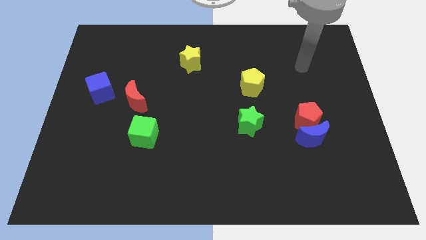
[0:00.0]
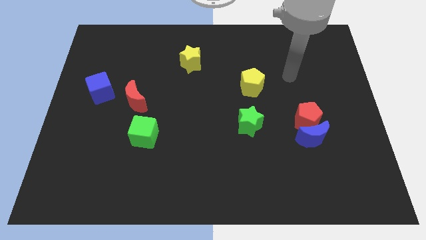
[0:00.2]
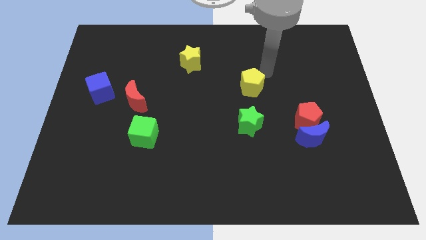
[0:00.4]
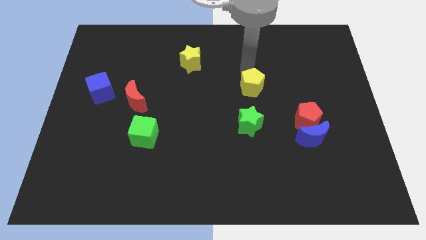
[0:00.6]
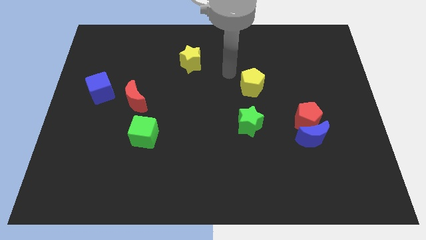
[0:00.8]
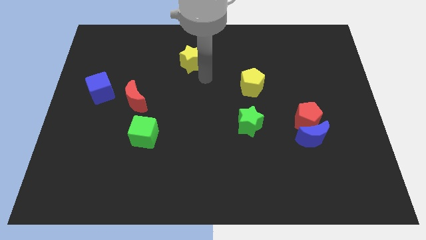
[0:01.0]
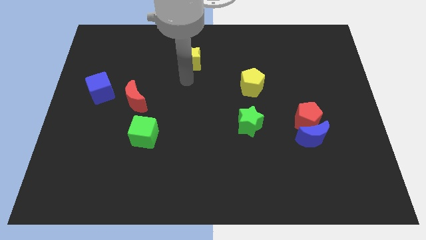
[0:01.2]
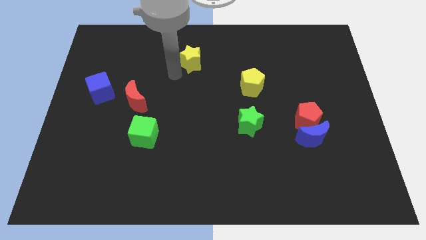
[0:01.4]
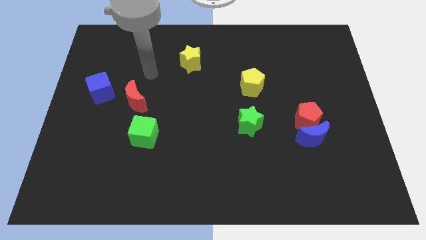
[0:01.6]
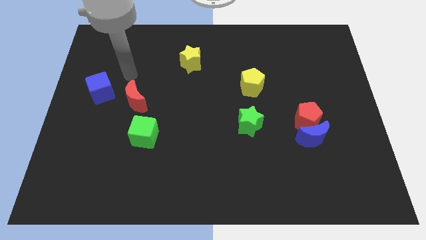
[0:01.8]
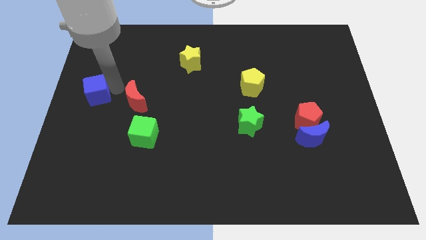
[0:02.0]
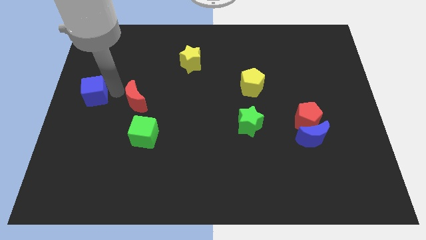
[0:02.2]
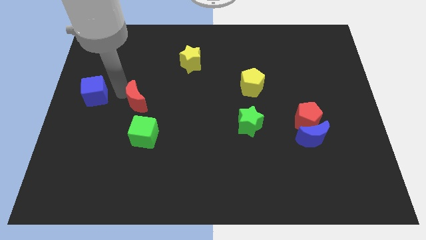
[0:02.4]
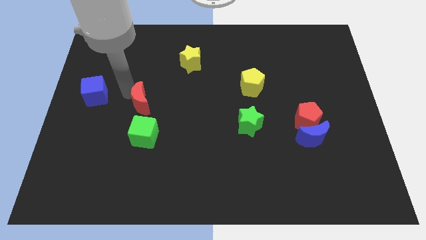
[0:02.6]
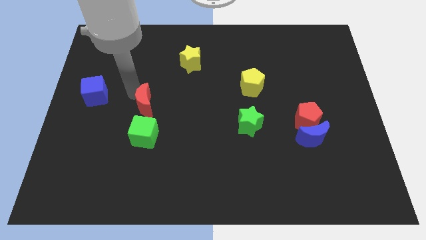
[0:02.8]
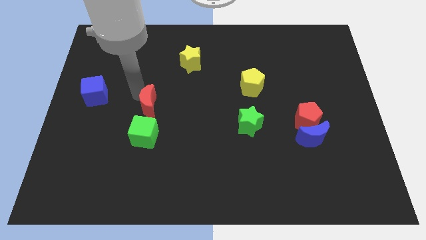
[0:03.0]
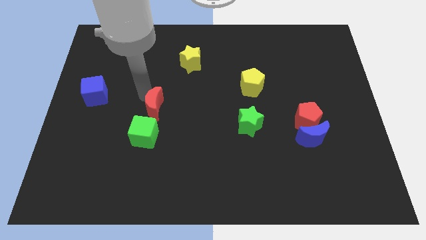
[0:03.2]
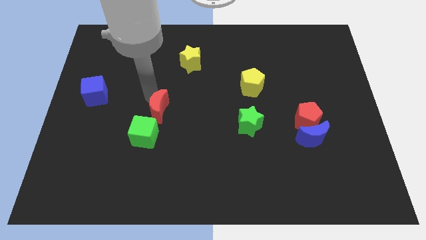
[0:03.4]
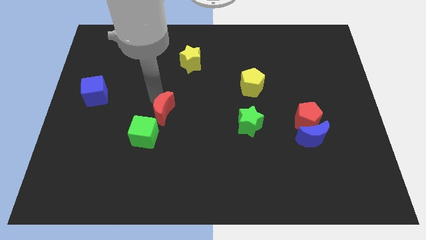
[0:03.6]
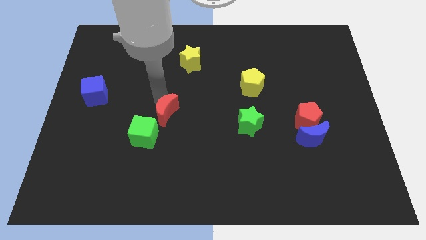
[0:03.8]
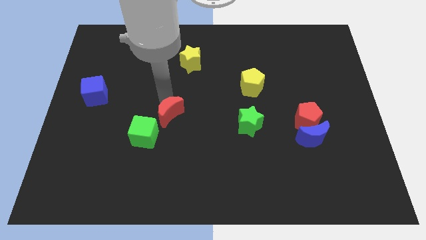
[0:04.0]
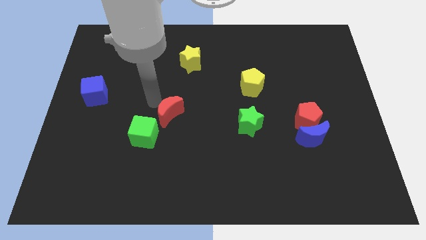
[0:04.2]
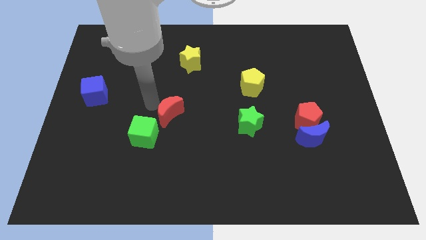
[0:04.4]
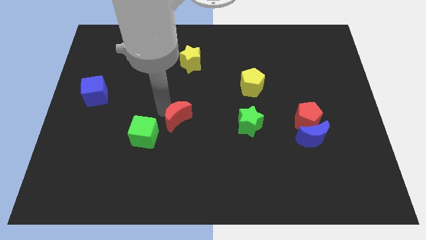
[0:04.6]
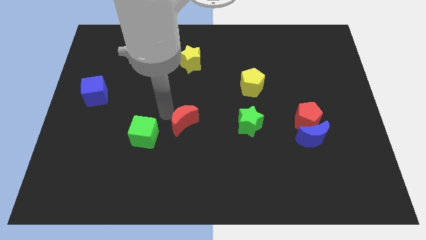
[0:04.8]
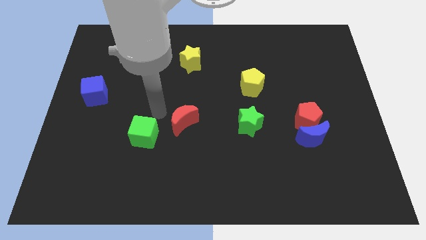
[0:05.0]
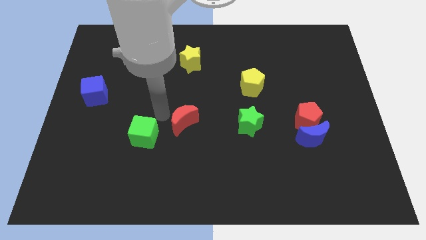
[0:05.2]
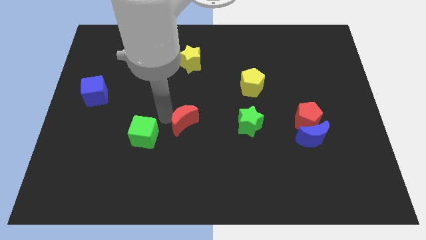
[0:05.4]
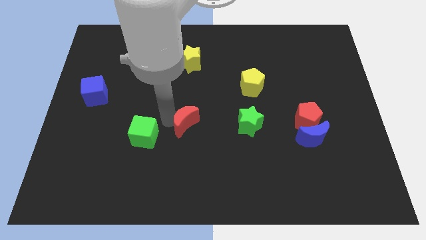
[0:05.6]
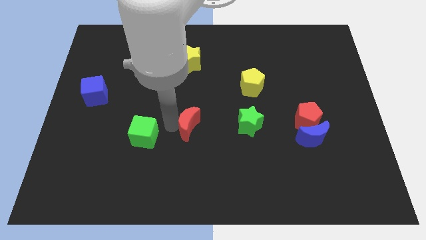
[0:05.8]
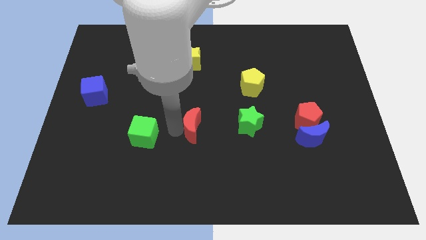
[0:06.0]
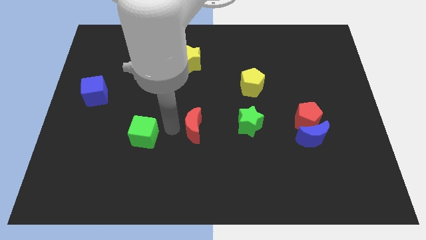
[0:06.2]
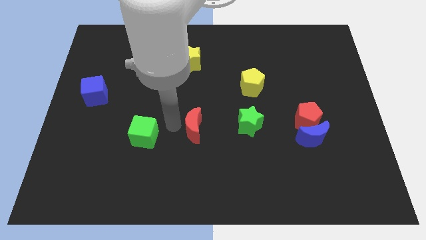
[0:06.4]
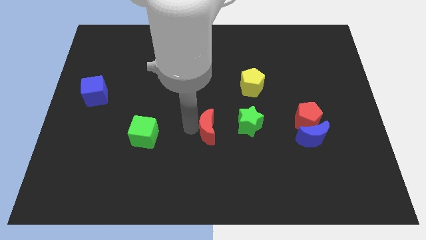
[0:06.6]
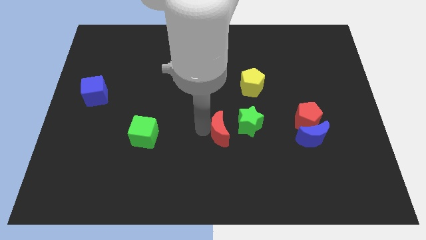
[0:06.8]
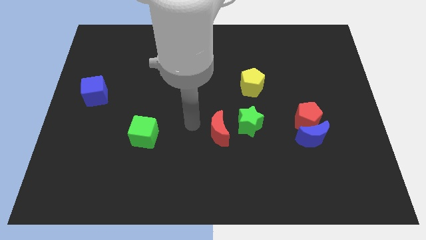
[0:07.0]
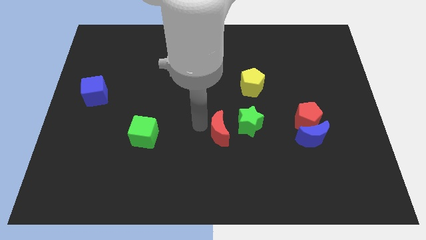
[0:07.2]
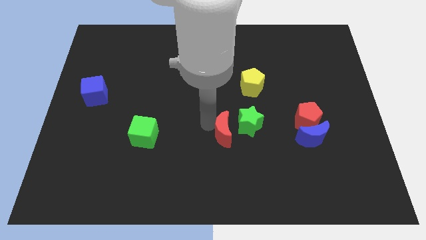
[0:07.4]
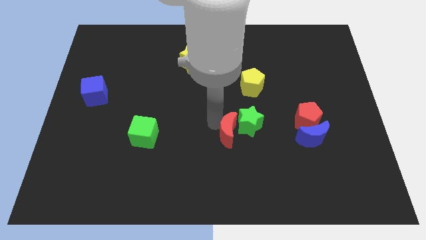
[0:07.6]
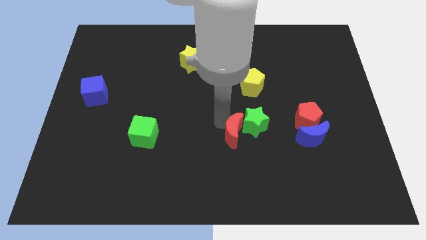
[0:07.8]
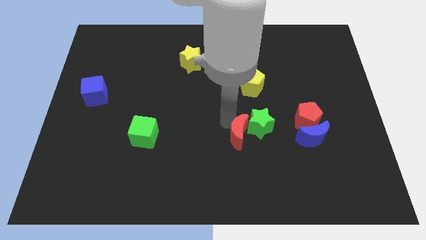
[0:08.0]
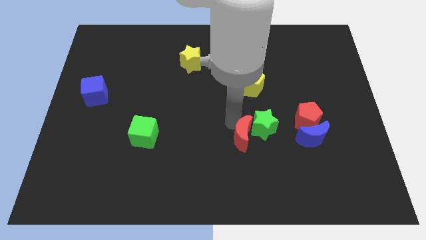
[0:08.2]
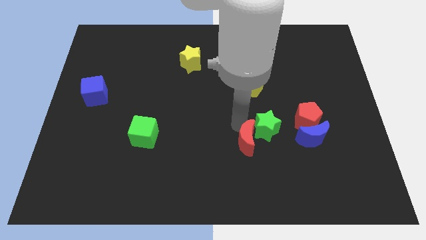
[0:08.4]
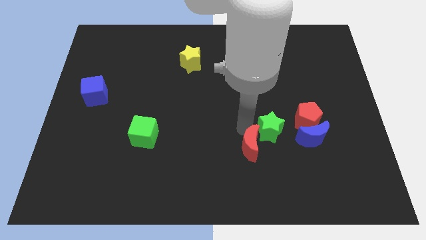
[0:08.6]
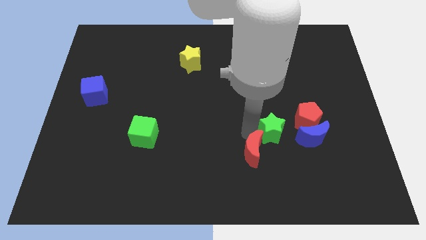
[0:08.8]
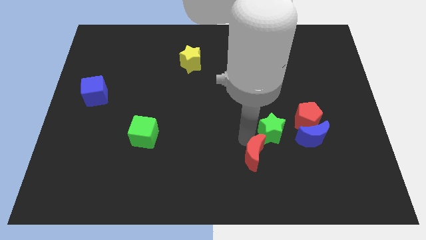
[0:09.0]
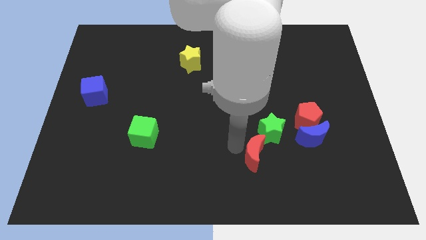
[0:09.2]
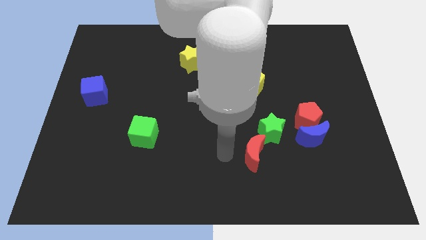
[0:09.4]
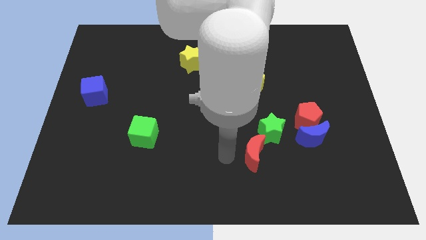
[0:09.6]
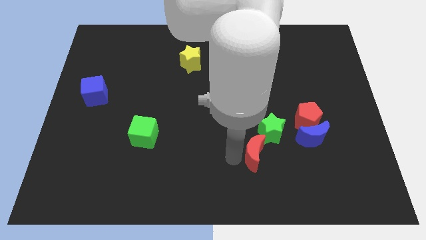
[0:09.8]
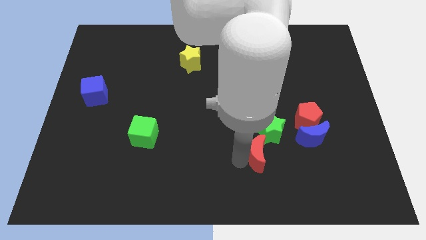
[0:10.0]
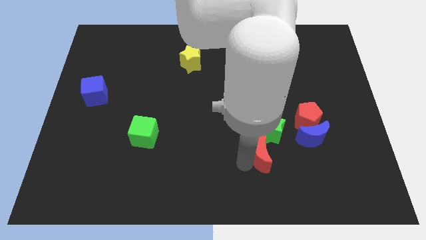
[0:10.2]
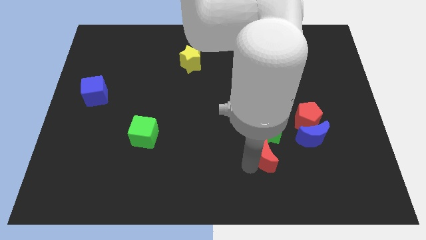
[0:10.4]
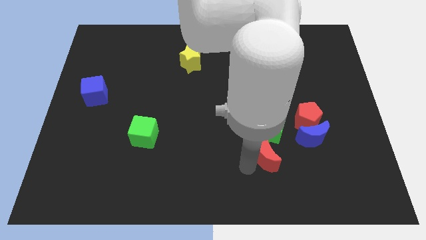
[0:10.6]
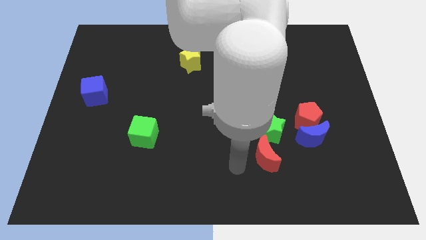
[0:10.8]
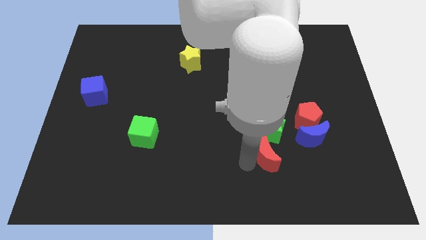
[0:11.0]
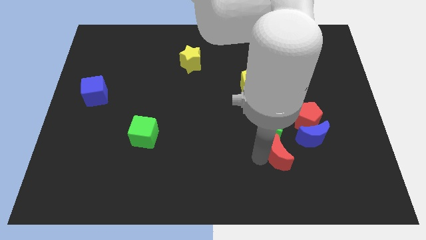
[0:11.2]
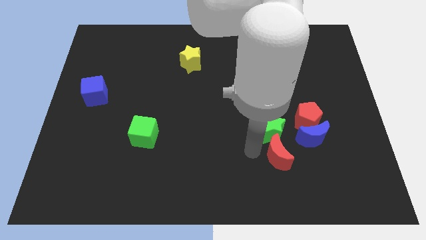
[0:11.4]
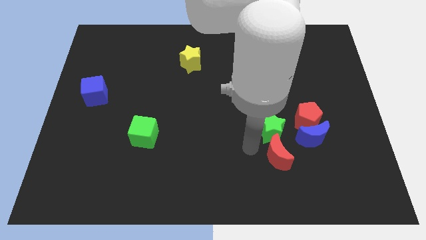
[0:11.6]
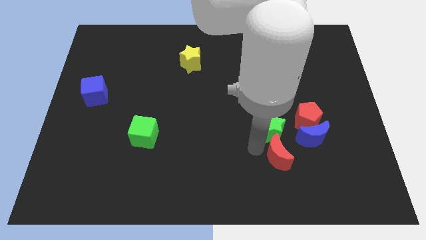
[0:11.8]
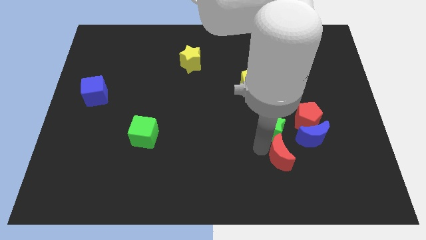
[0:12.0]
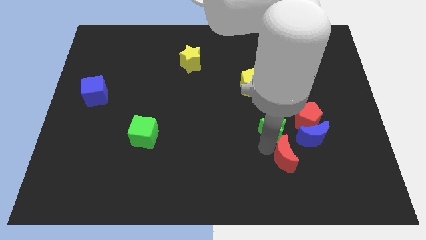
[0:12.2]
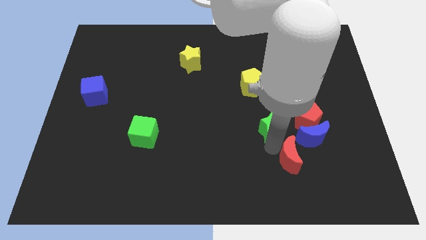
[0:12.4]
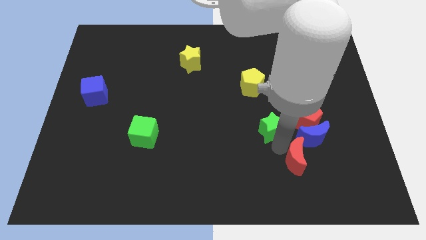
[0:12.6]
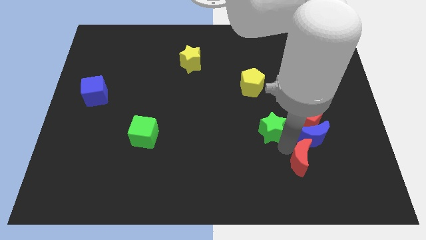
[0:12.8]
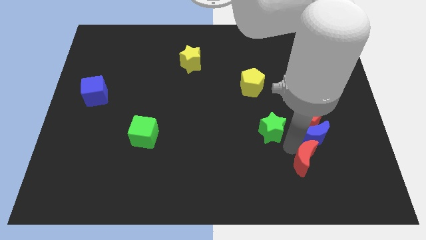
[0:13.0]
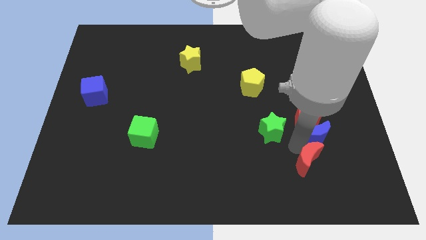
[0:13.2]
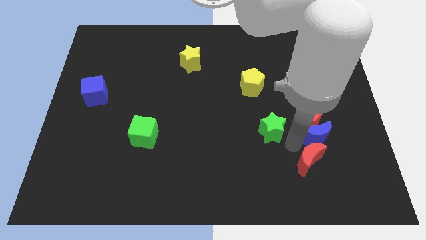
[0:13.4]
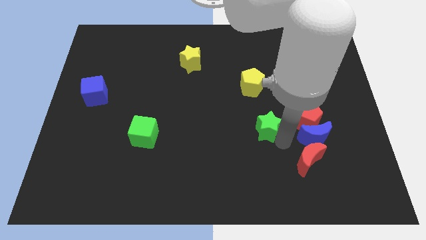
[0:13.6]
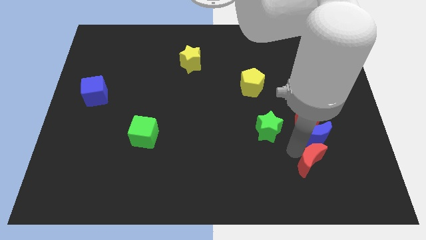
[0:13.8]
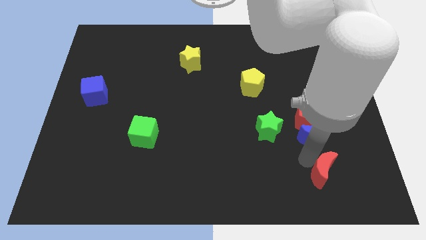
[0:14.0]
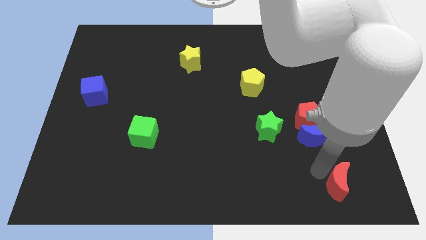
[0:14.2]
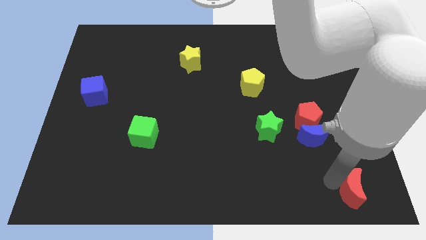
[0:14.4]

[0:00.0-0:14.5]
move the red moon to the lower right corner
